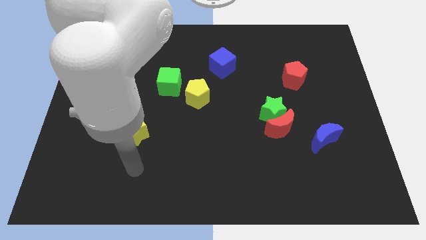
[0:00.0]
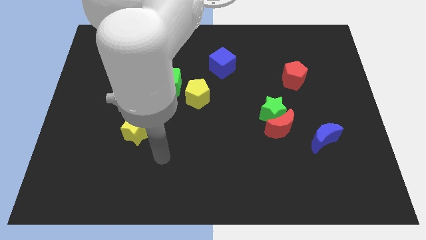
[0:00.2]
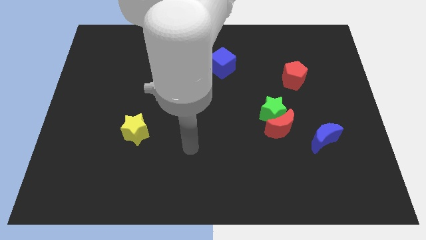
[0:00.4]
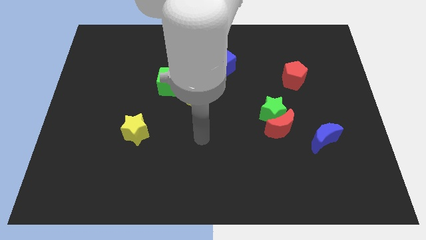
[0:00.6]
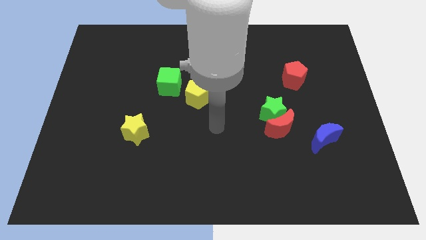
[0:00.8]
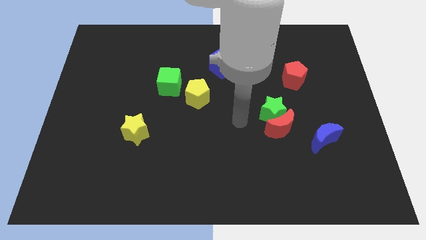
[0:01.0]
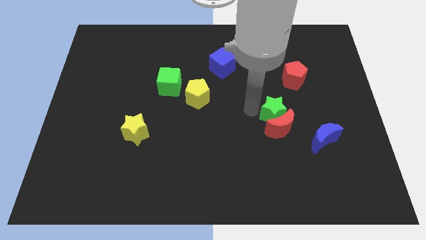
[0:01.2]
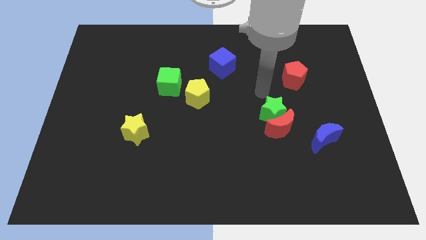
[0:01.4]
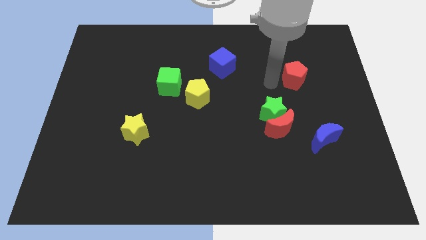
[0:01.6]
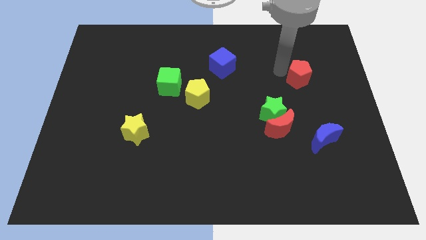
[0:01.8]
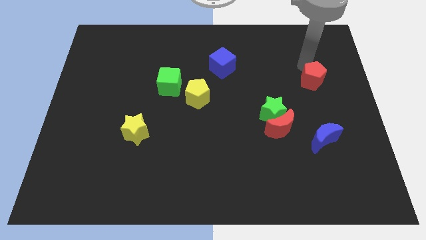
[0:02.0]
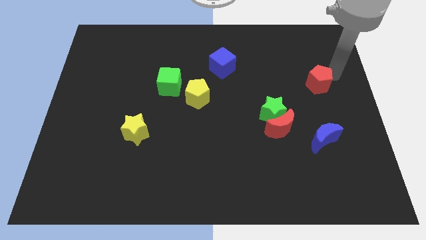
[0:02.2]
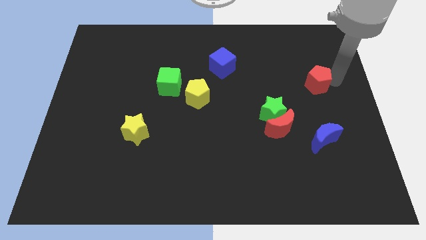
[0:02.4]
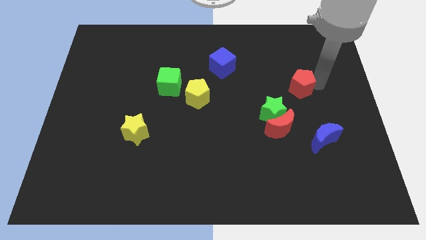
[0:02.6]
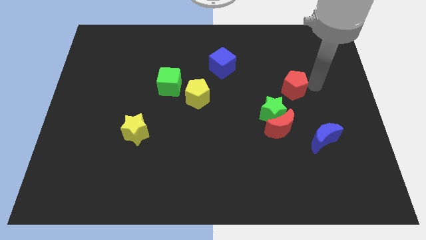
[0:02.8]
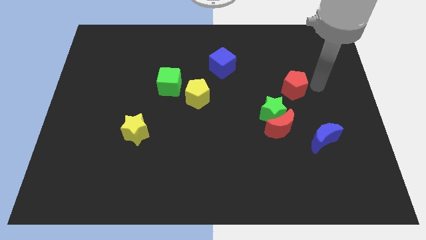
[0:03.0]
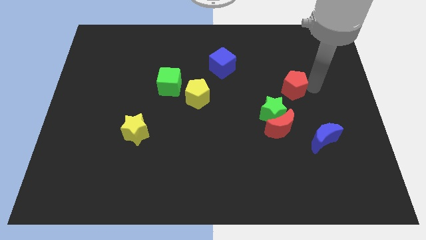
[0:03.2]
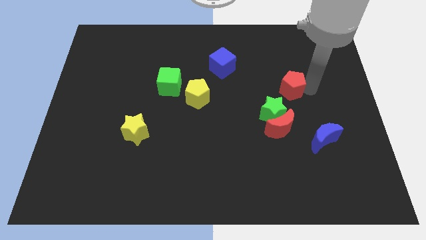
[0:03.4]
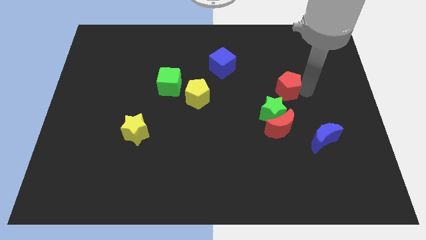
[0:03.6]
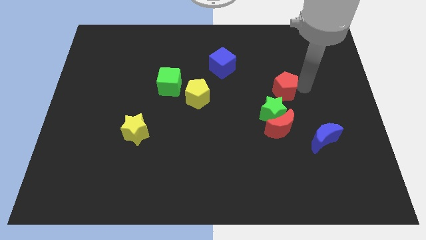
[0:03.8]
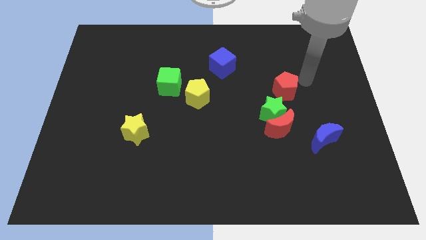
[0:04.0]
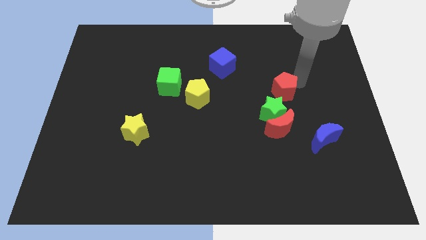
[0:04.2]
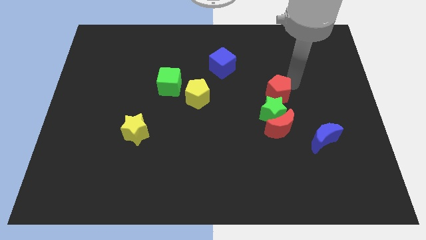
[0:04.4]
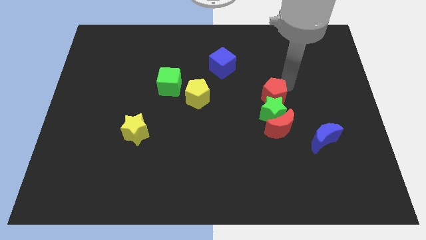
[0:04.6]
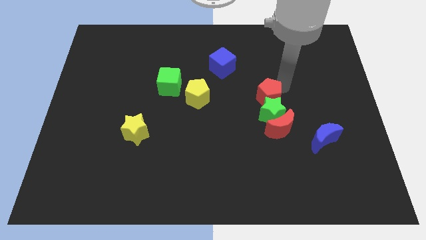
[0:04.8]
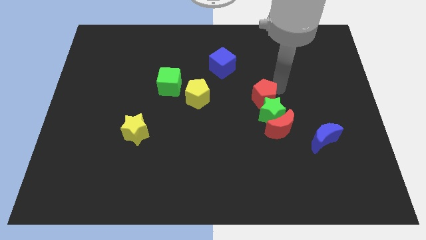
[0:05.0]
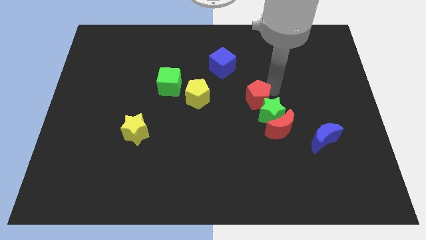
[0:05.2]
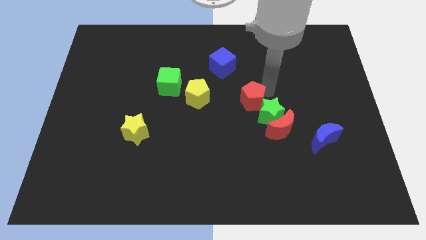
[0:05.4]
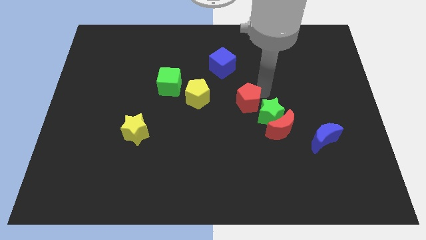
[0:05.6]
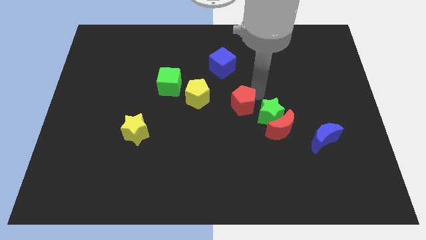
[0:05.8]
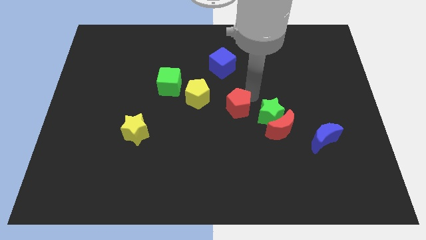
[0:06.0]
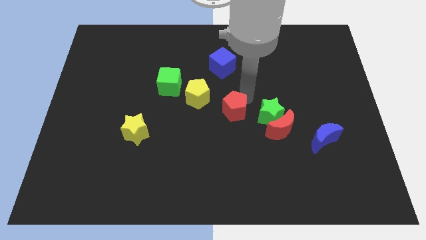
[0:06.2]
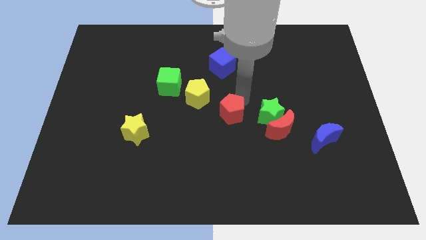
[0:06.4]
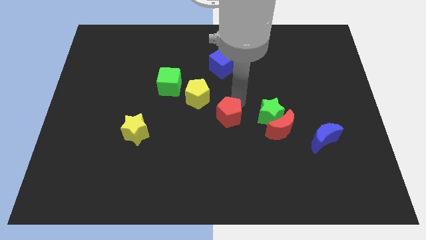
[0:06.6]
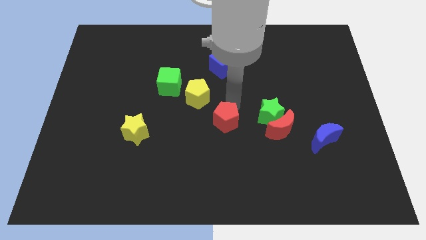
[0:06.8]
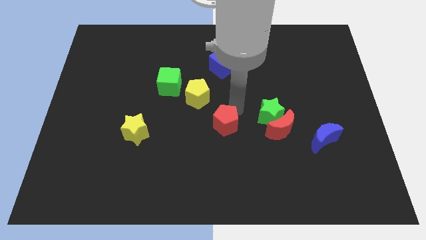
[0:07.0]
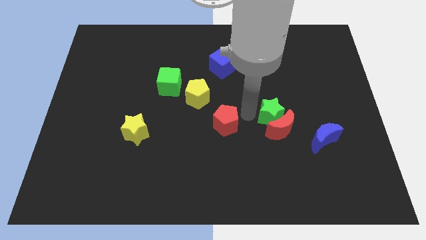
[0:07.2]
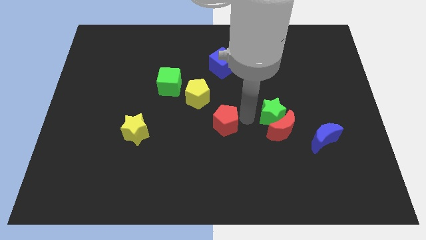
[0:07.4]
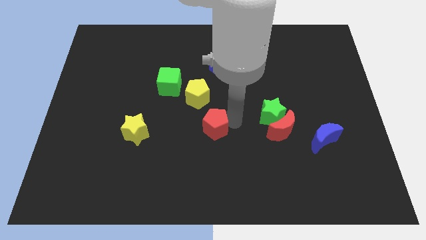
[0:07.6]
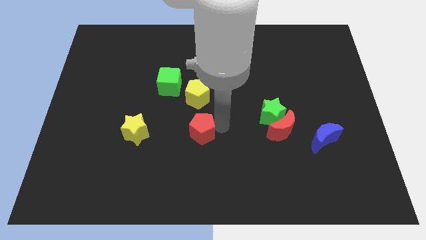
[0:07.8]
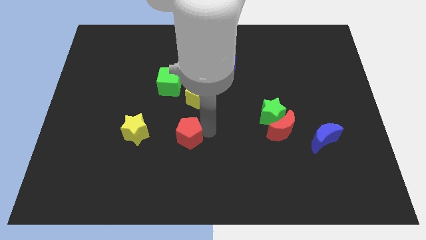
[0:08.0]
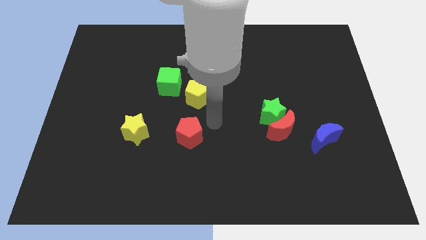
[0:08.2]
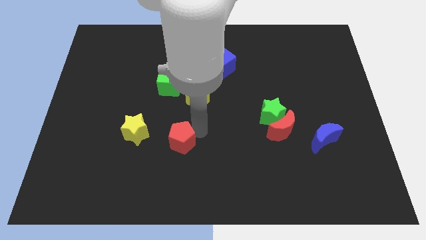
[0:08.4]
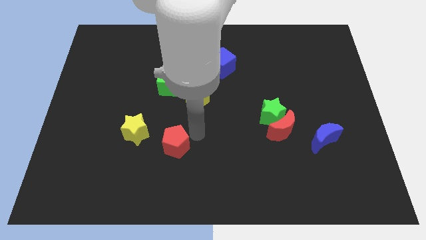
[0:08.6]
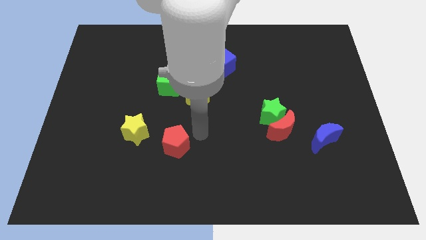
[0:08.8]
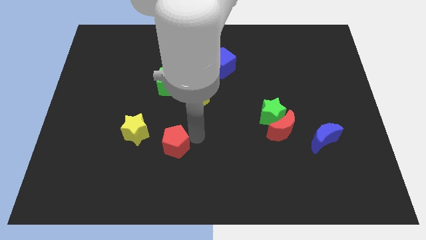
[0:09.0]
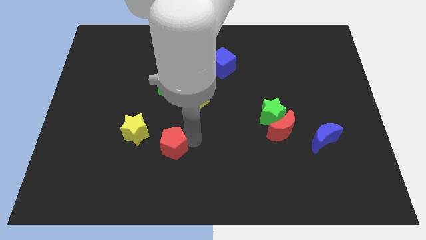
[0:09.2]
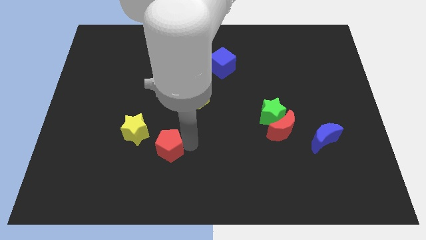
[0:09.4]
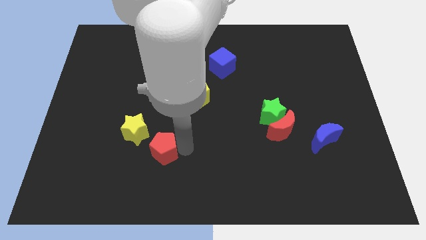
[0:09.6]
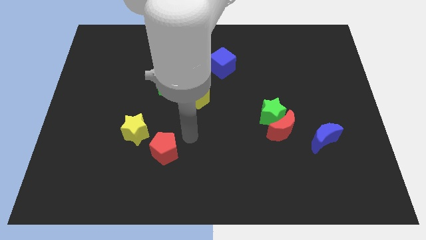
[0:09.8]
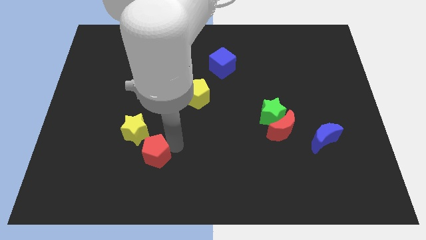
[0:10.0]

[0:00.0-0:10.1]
put the red pentagon below the yellow star

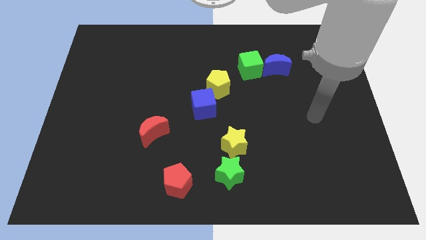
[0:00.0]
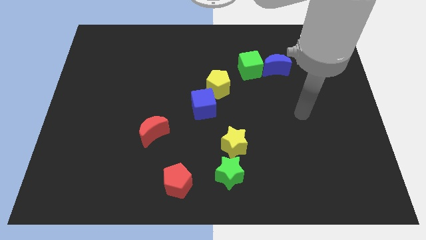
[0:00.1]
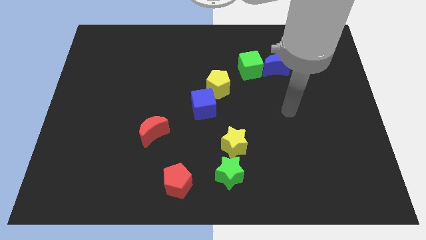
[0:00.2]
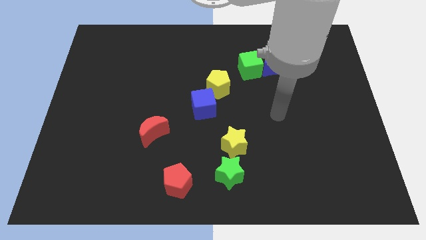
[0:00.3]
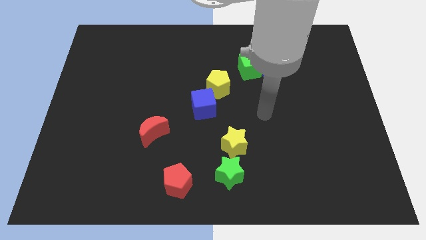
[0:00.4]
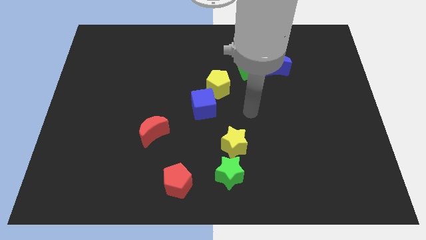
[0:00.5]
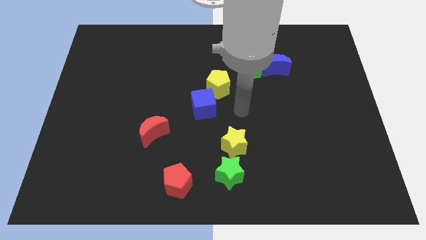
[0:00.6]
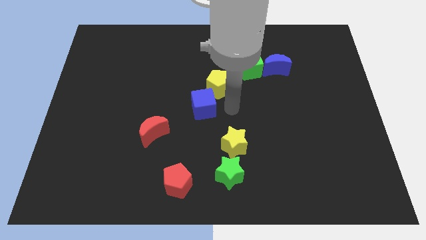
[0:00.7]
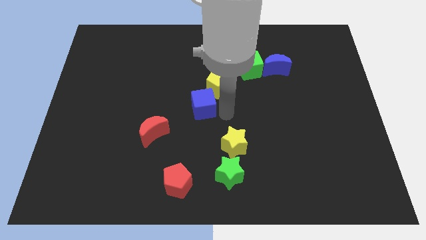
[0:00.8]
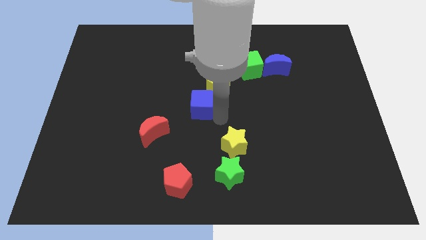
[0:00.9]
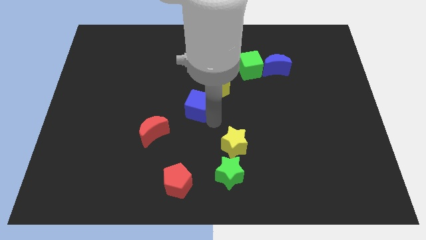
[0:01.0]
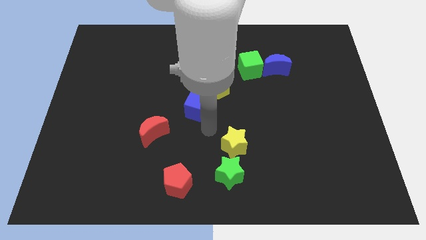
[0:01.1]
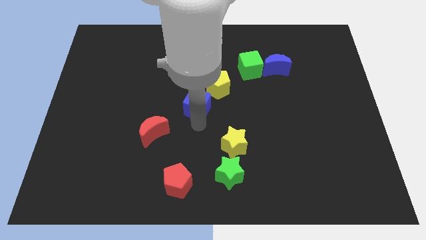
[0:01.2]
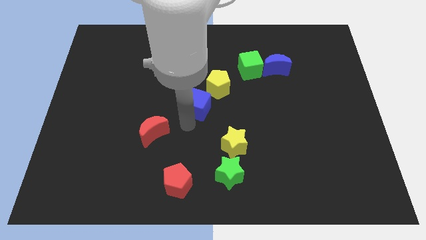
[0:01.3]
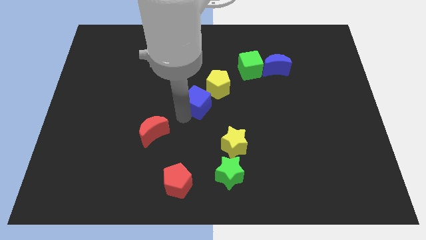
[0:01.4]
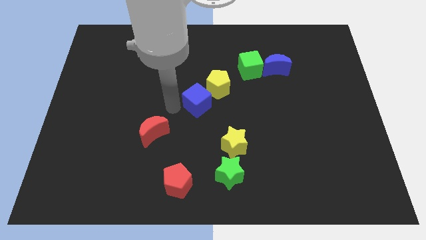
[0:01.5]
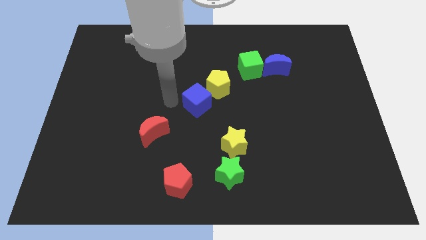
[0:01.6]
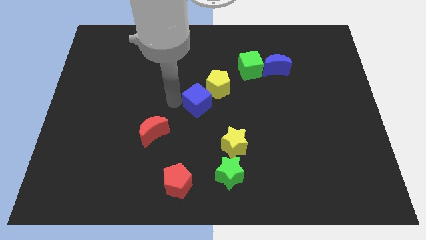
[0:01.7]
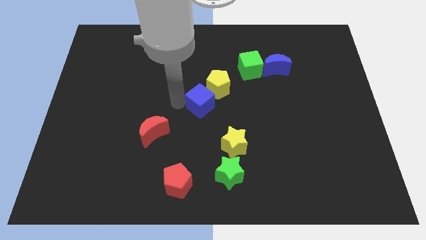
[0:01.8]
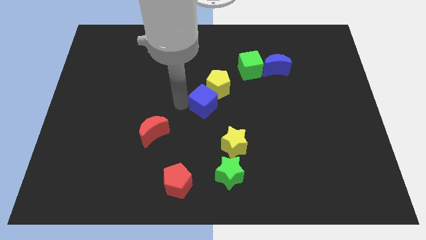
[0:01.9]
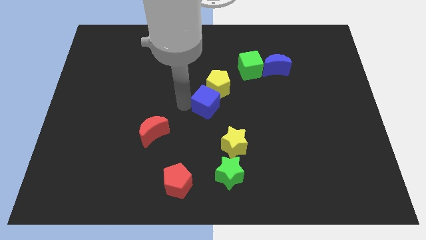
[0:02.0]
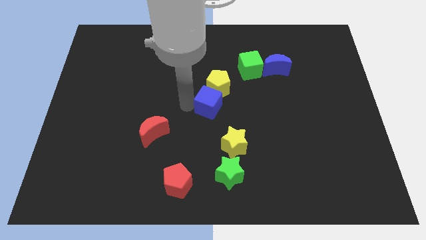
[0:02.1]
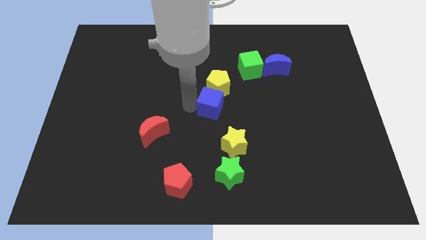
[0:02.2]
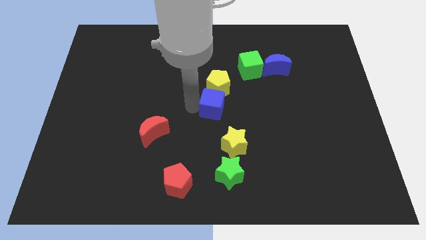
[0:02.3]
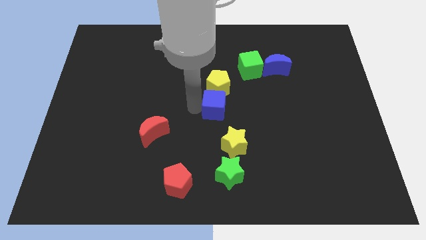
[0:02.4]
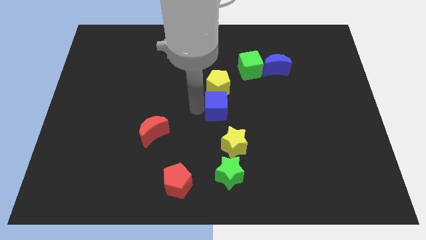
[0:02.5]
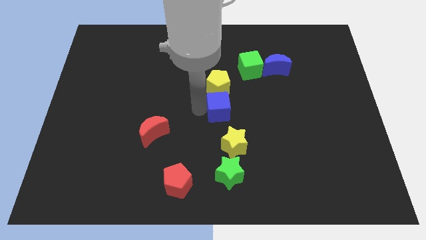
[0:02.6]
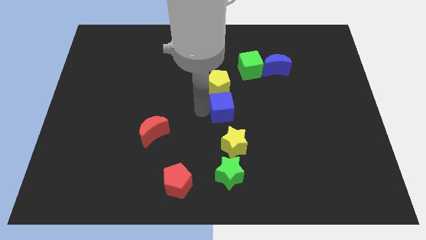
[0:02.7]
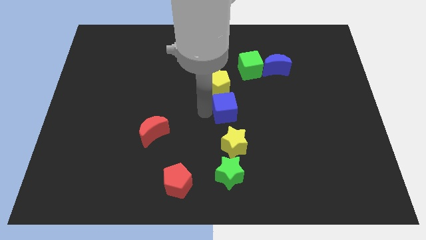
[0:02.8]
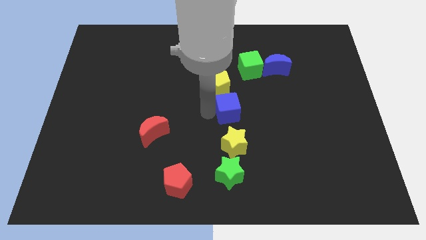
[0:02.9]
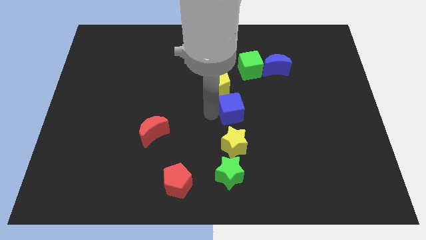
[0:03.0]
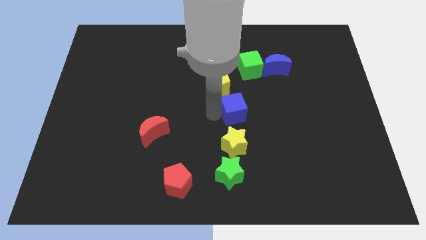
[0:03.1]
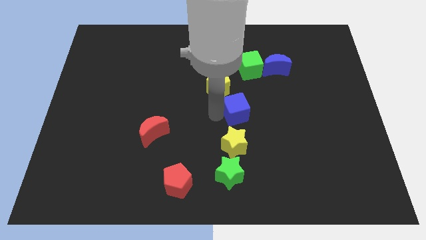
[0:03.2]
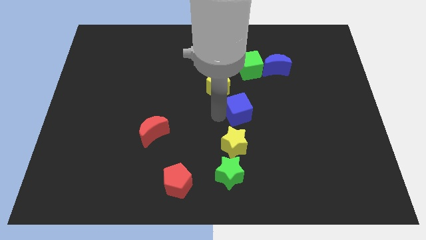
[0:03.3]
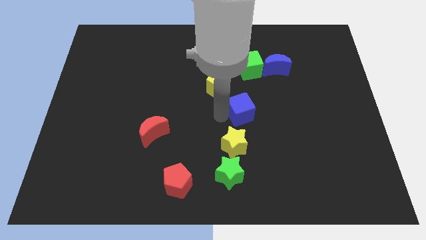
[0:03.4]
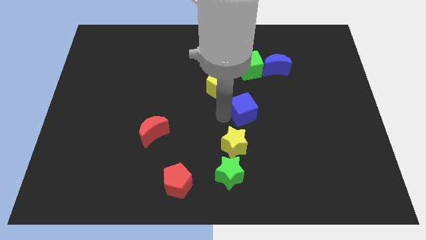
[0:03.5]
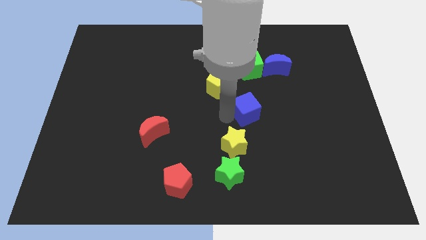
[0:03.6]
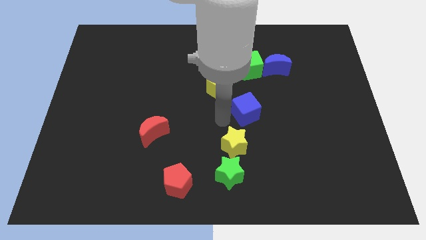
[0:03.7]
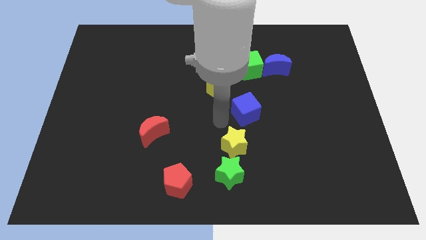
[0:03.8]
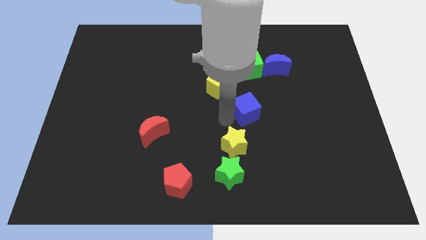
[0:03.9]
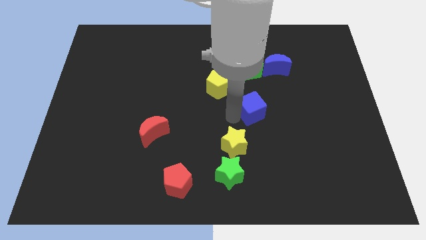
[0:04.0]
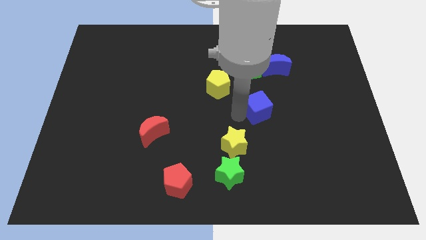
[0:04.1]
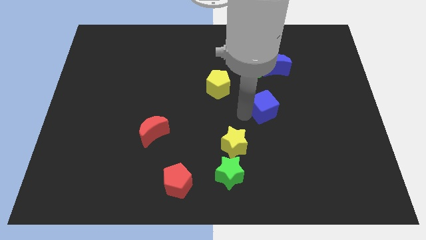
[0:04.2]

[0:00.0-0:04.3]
push the blue cube to the bottom of the blue moon
